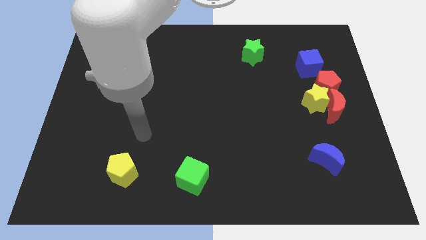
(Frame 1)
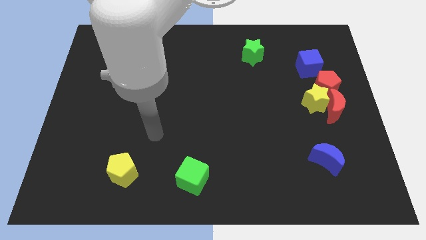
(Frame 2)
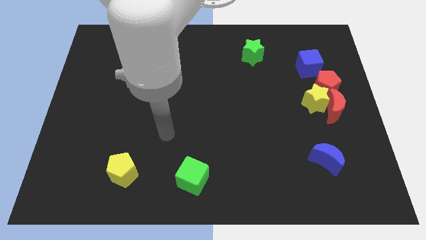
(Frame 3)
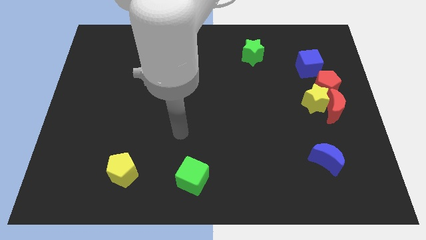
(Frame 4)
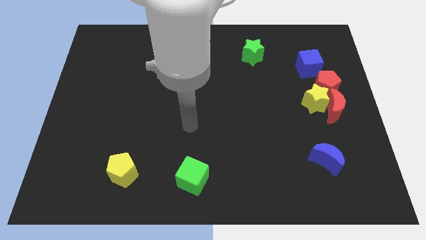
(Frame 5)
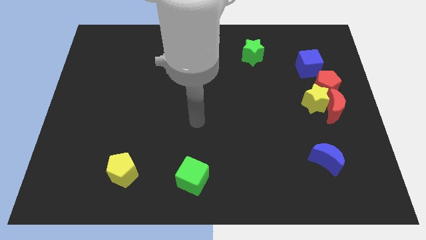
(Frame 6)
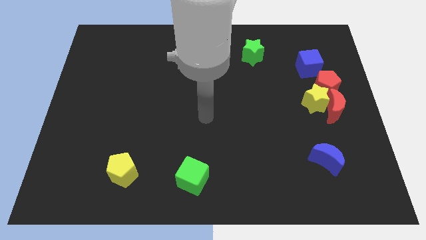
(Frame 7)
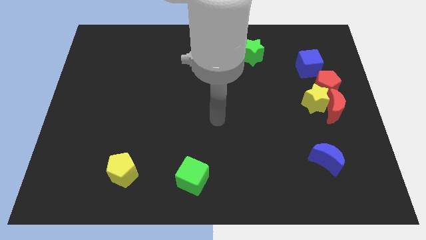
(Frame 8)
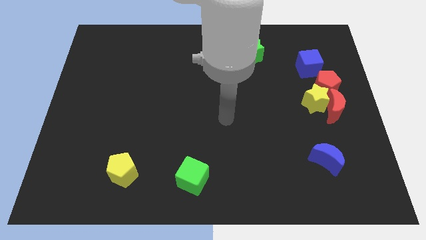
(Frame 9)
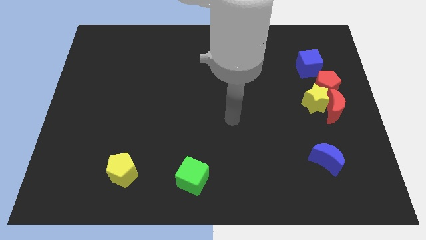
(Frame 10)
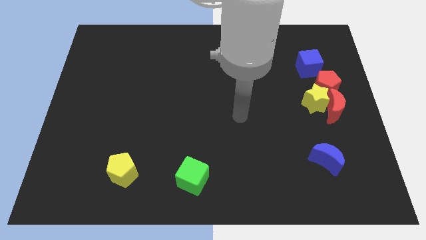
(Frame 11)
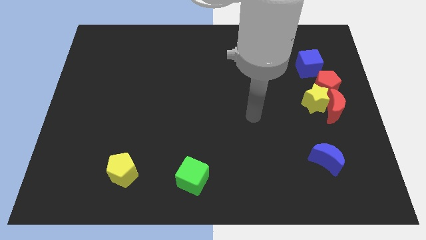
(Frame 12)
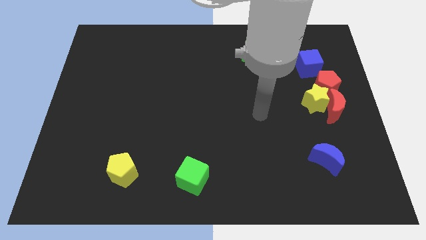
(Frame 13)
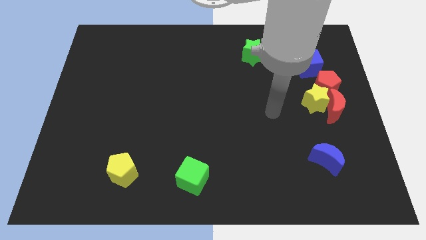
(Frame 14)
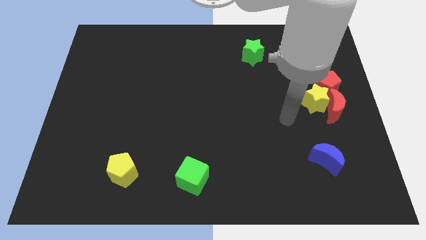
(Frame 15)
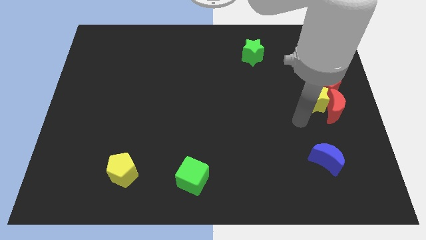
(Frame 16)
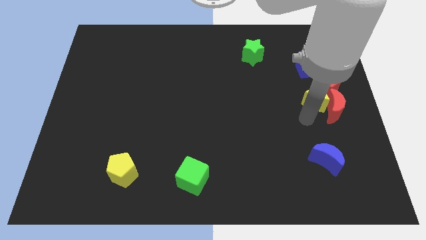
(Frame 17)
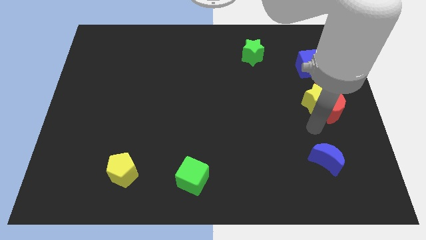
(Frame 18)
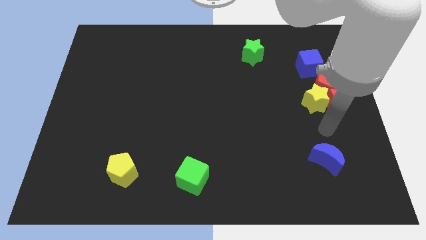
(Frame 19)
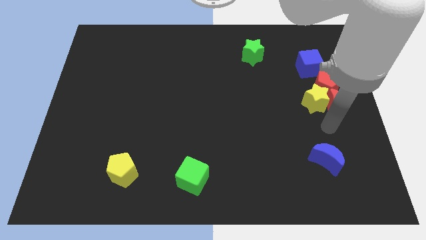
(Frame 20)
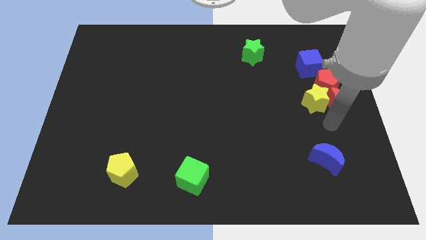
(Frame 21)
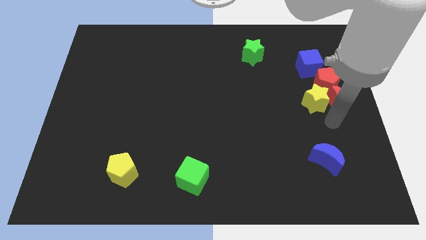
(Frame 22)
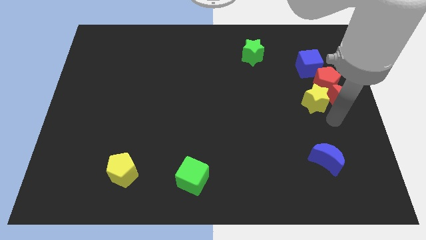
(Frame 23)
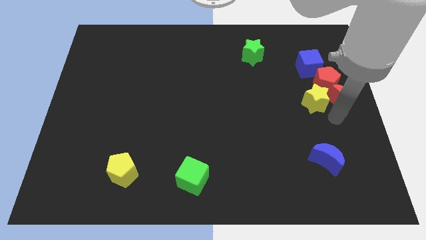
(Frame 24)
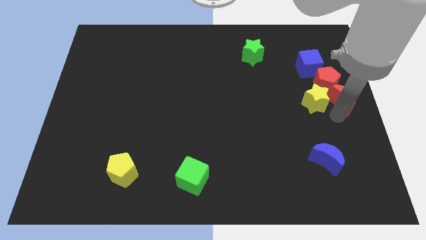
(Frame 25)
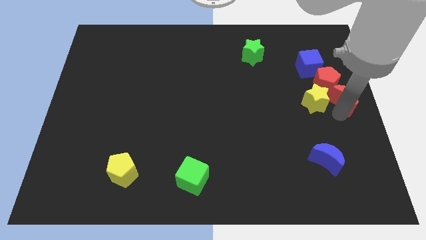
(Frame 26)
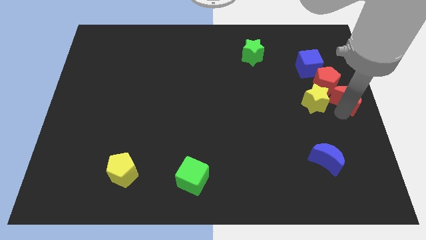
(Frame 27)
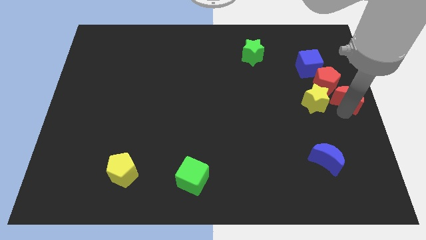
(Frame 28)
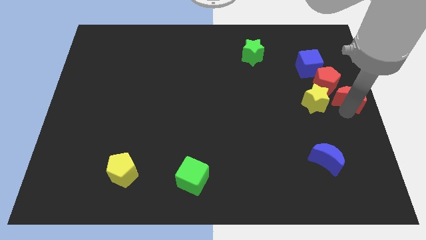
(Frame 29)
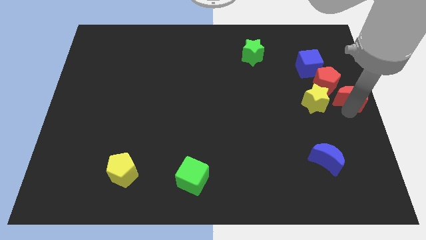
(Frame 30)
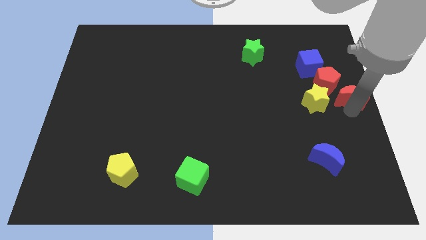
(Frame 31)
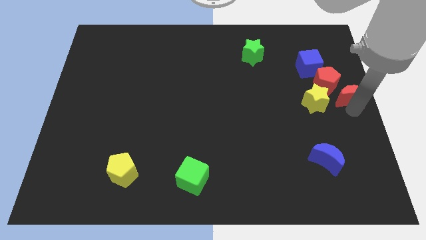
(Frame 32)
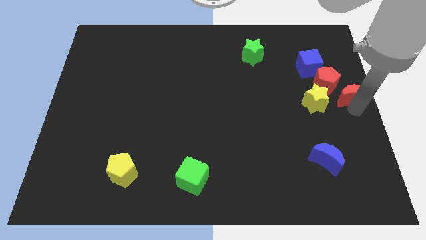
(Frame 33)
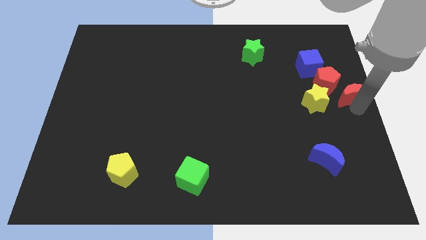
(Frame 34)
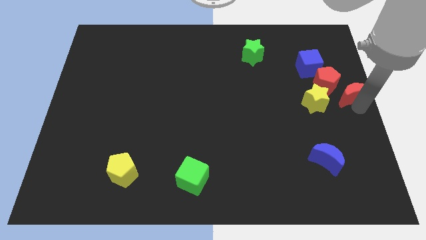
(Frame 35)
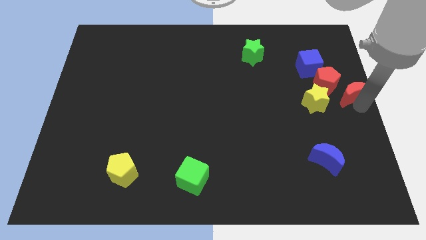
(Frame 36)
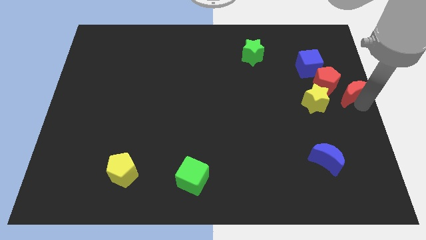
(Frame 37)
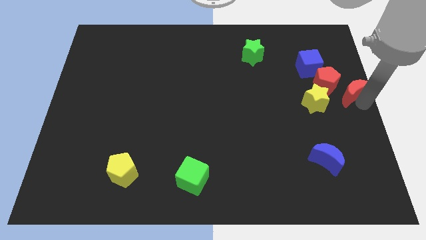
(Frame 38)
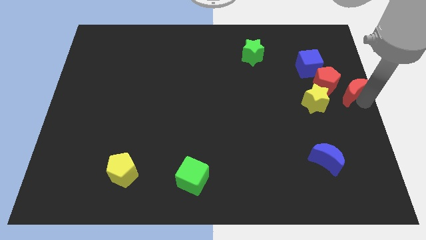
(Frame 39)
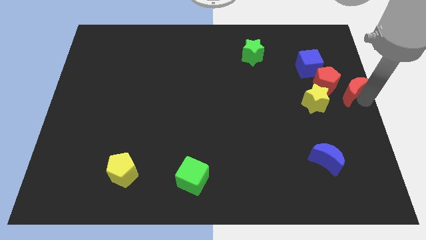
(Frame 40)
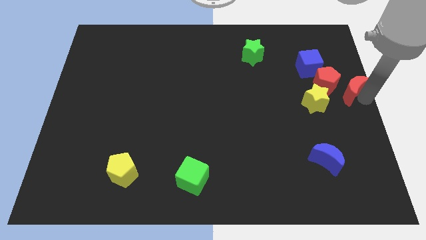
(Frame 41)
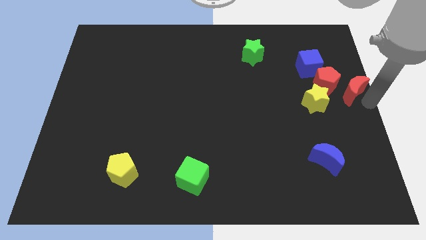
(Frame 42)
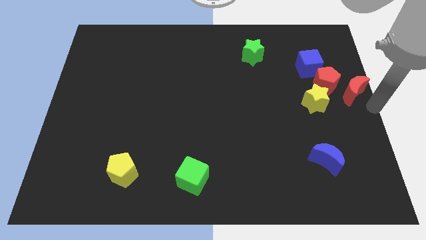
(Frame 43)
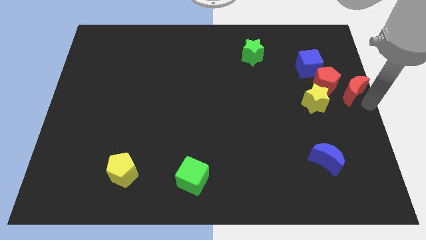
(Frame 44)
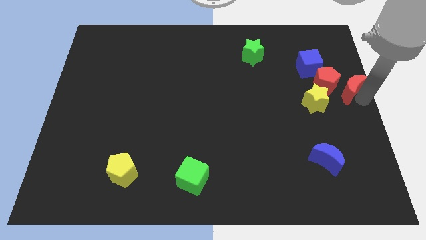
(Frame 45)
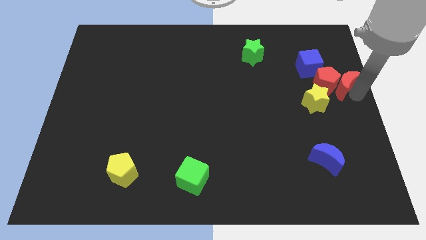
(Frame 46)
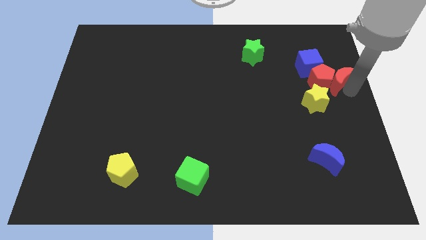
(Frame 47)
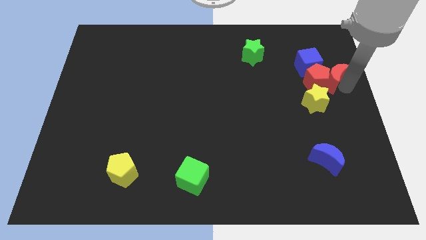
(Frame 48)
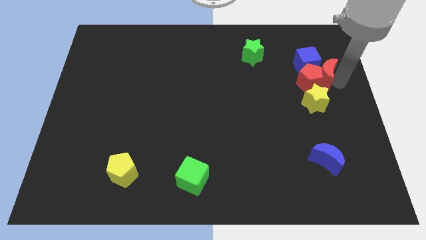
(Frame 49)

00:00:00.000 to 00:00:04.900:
move the red moon towards the blue cube
